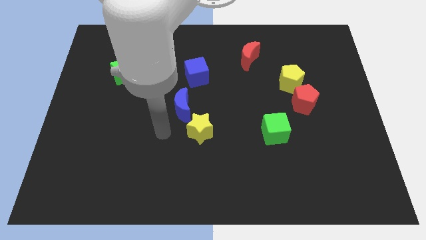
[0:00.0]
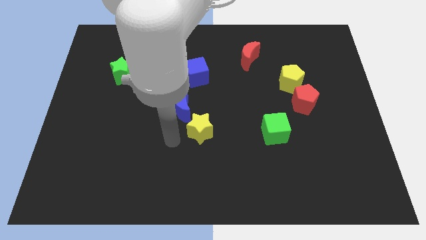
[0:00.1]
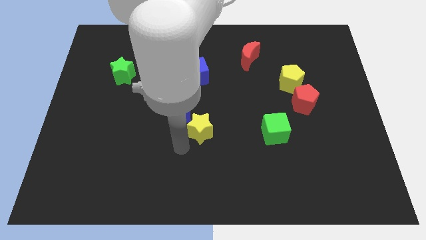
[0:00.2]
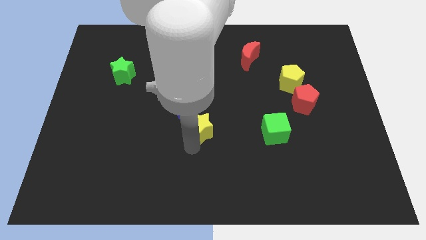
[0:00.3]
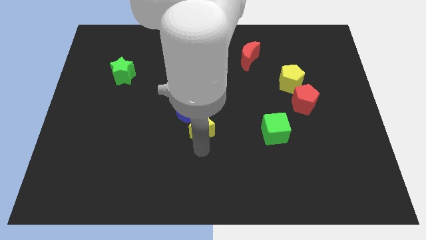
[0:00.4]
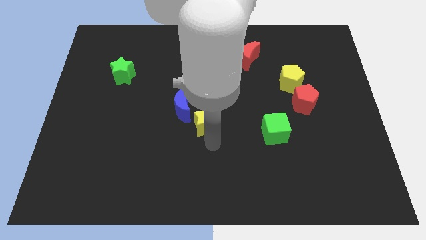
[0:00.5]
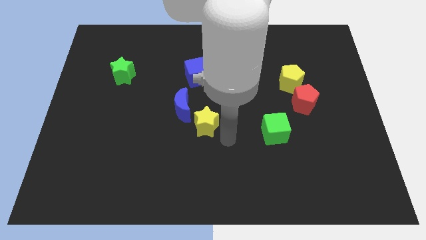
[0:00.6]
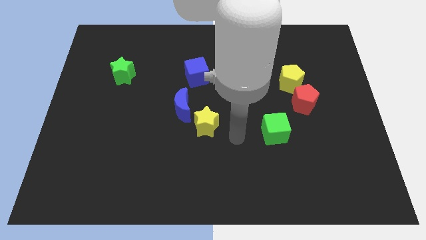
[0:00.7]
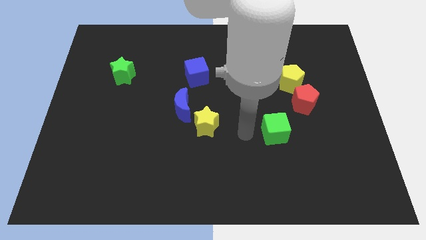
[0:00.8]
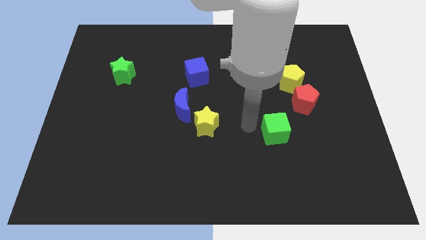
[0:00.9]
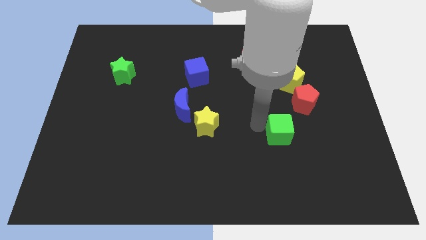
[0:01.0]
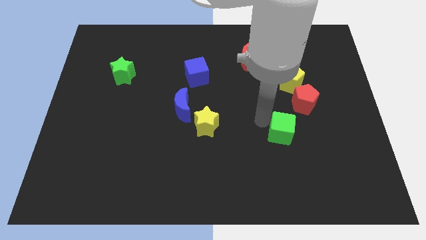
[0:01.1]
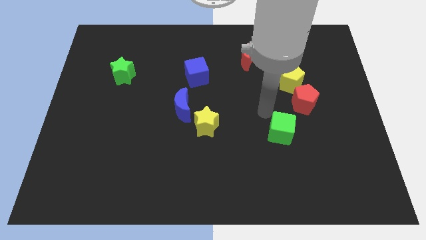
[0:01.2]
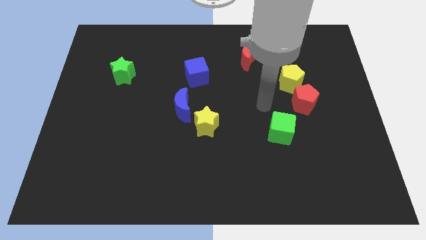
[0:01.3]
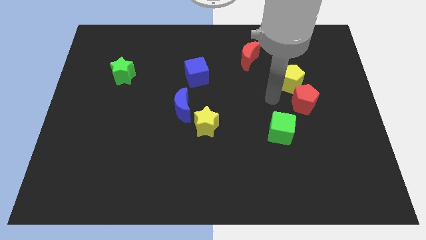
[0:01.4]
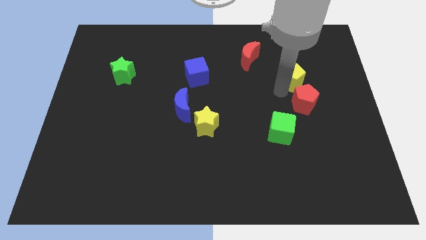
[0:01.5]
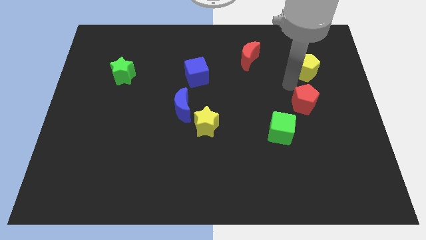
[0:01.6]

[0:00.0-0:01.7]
move the red pentagon away from the yellow pentagon

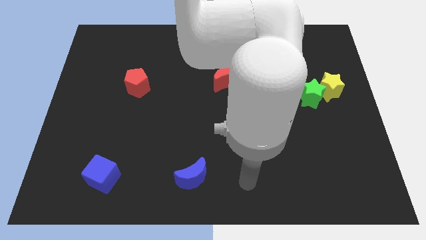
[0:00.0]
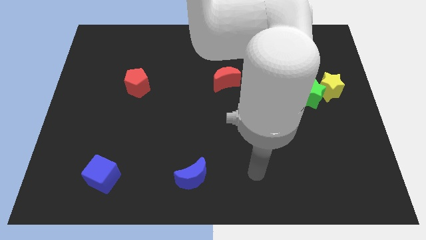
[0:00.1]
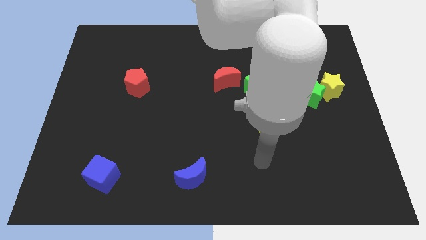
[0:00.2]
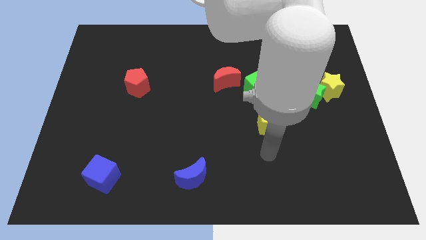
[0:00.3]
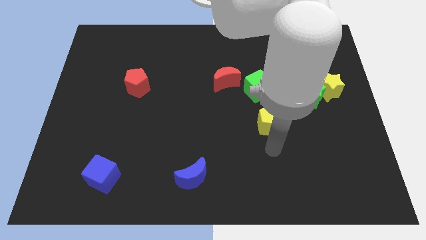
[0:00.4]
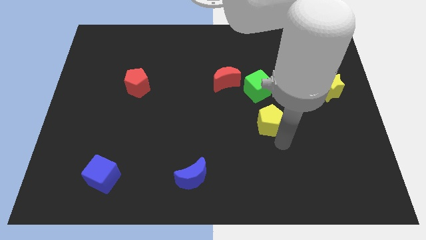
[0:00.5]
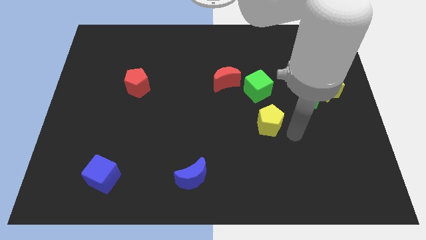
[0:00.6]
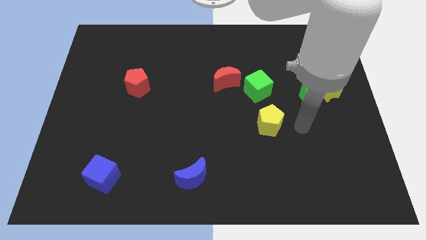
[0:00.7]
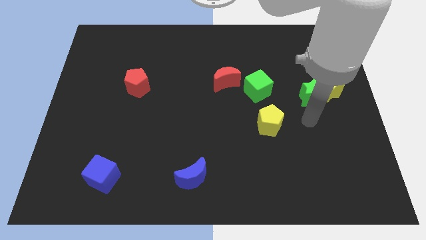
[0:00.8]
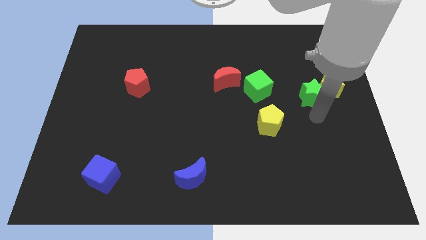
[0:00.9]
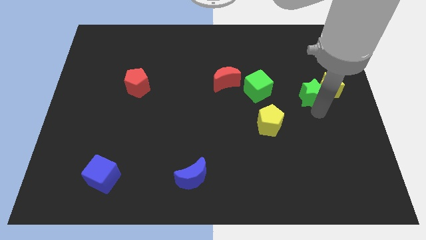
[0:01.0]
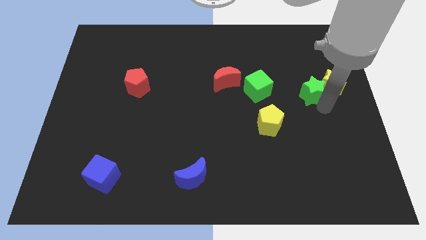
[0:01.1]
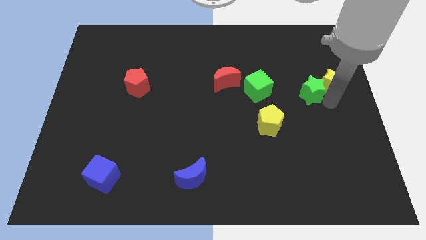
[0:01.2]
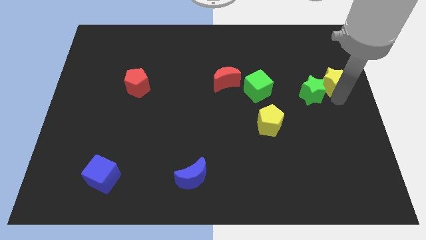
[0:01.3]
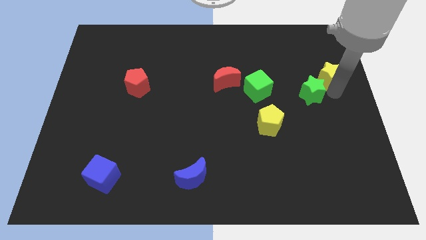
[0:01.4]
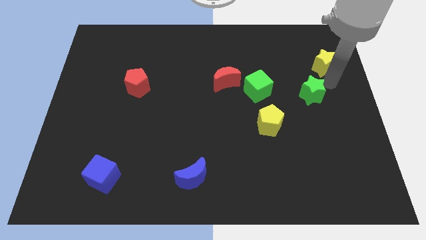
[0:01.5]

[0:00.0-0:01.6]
pull the green star apart from the yellow star

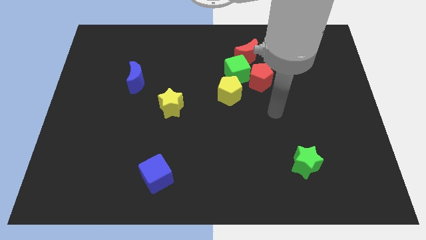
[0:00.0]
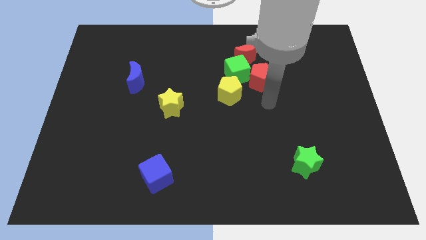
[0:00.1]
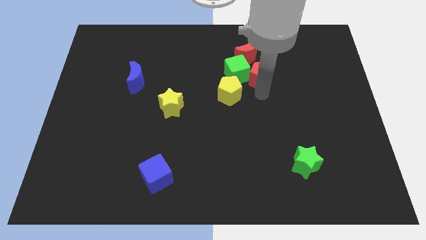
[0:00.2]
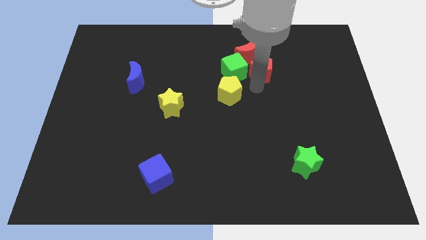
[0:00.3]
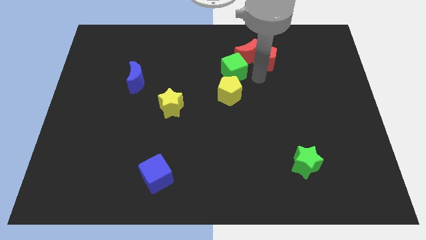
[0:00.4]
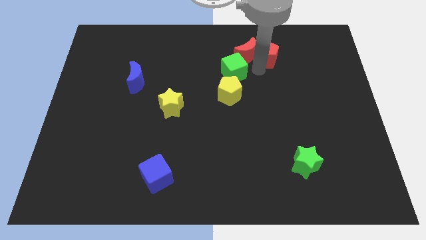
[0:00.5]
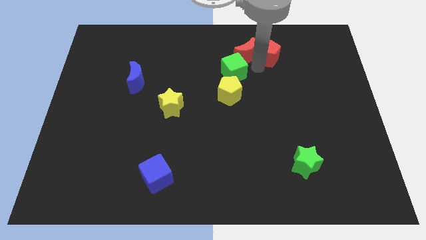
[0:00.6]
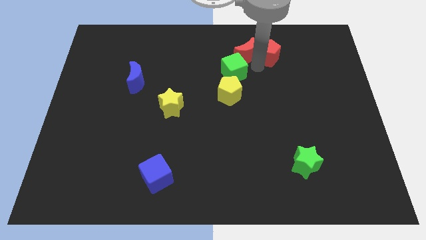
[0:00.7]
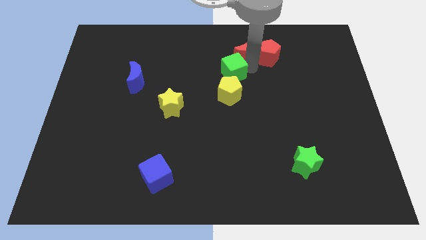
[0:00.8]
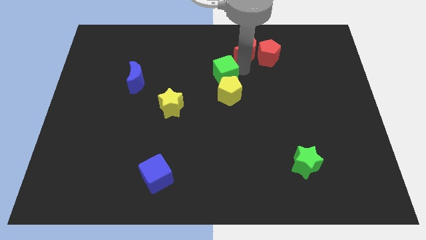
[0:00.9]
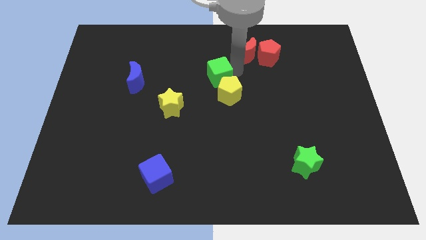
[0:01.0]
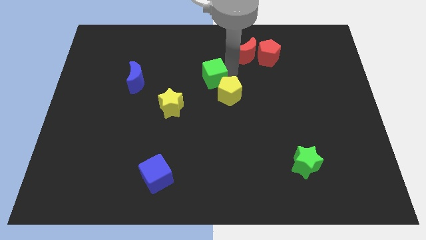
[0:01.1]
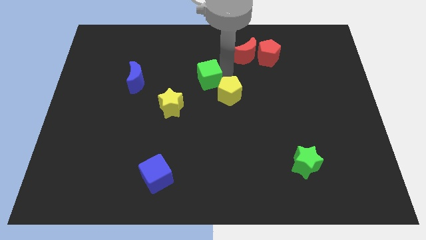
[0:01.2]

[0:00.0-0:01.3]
pull the green cube apart from the red pentagon, red moon, and yellow pentagon

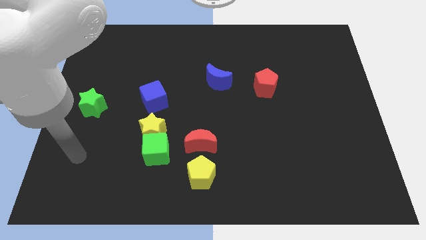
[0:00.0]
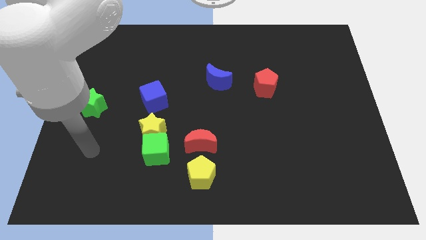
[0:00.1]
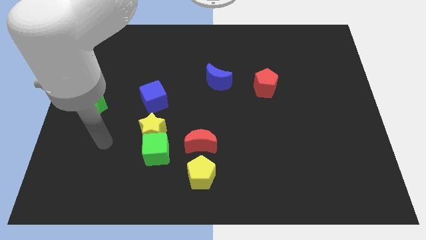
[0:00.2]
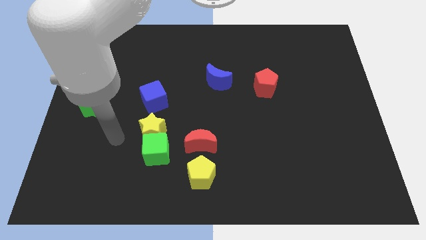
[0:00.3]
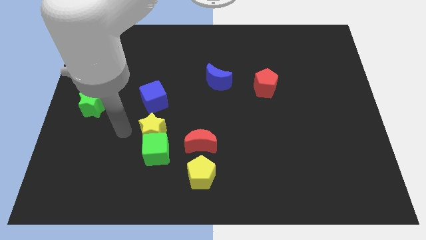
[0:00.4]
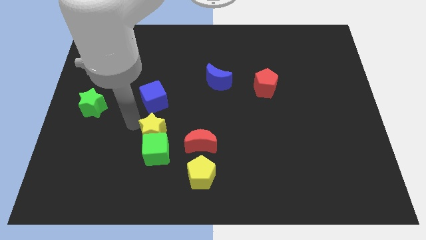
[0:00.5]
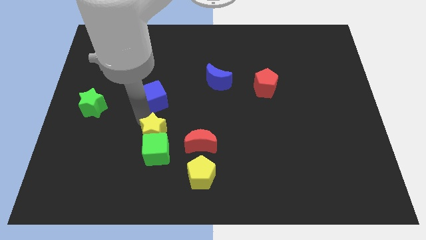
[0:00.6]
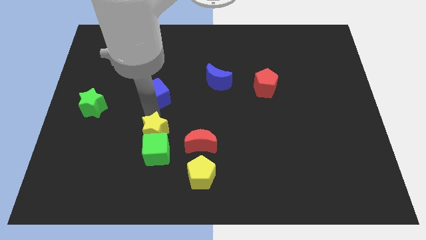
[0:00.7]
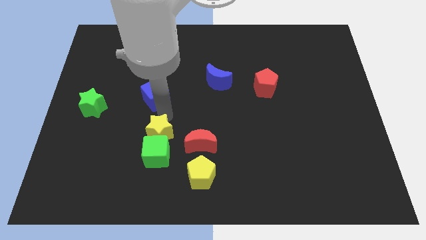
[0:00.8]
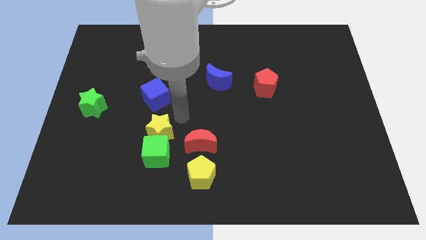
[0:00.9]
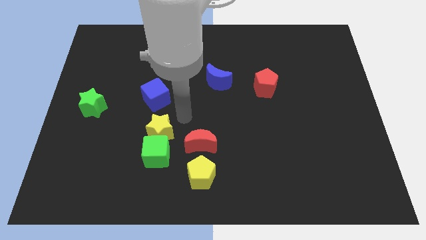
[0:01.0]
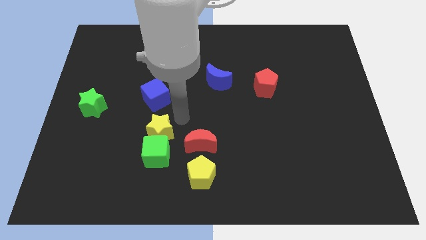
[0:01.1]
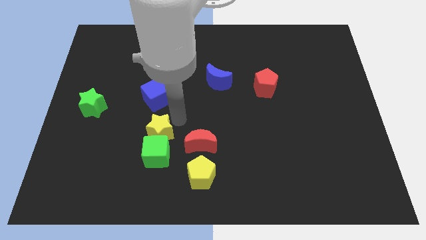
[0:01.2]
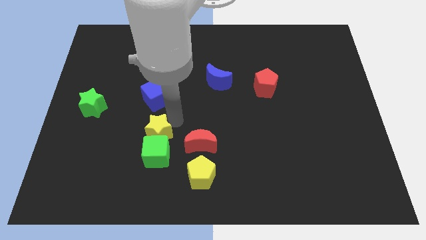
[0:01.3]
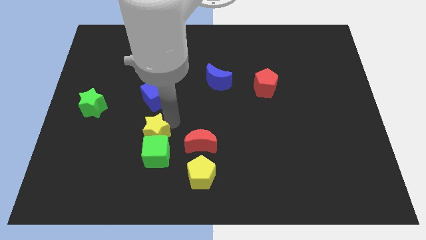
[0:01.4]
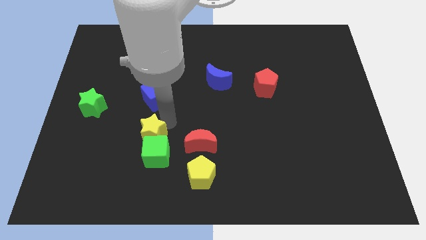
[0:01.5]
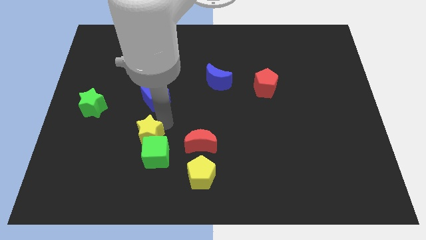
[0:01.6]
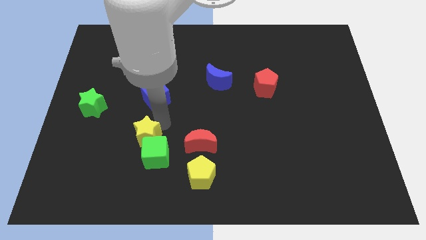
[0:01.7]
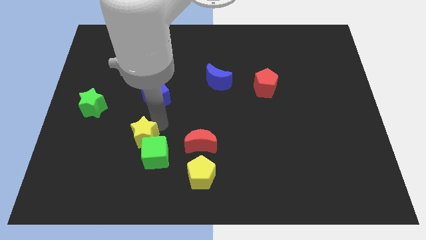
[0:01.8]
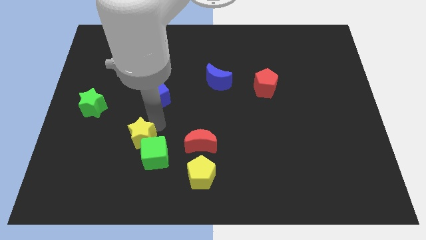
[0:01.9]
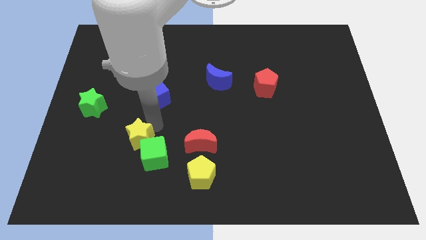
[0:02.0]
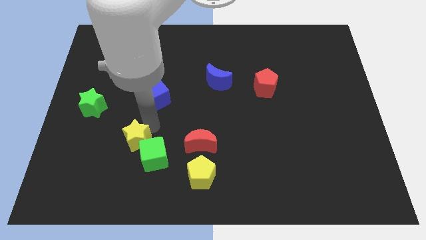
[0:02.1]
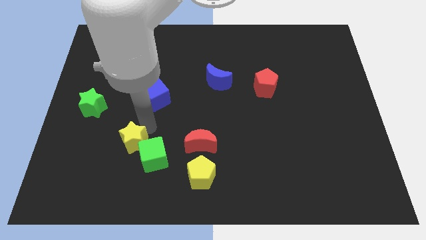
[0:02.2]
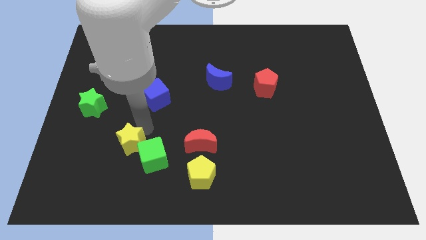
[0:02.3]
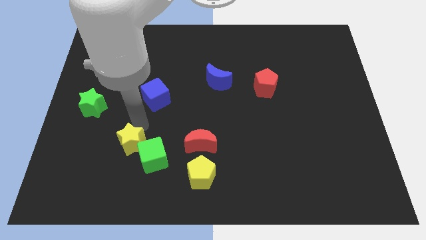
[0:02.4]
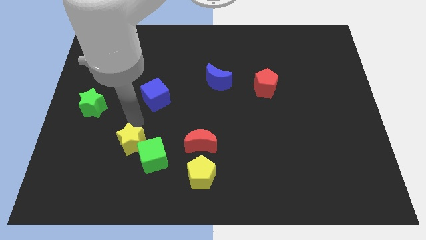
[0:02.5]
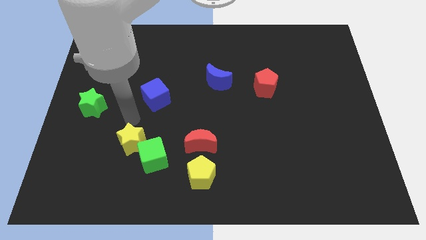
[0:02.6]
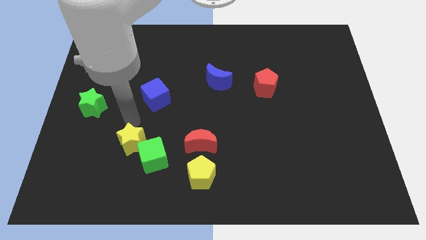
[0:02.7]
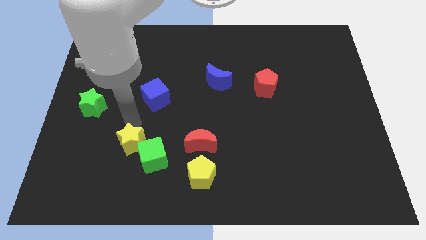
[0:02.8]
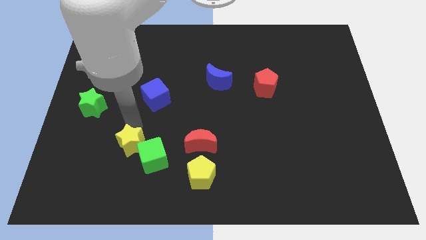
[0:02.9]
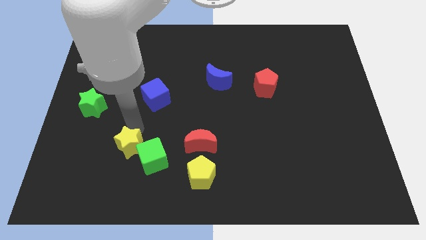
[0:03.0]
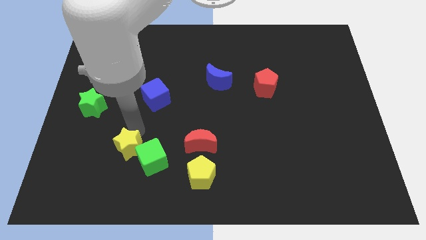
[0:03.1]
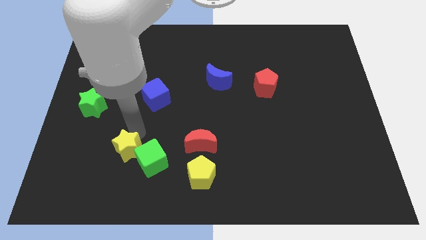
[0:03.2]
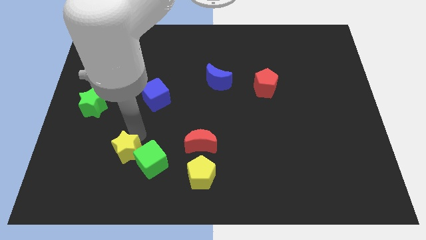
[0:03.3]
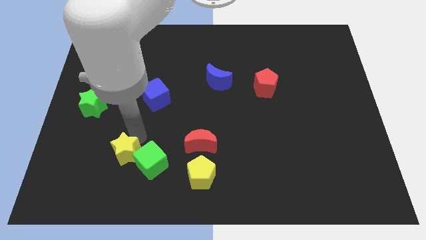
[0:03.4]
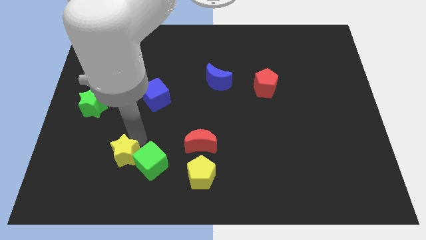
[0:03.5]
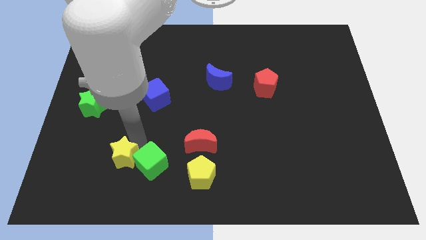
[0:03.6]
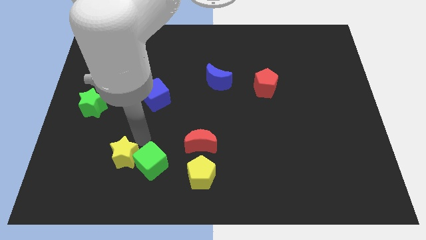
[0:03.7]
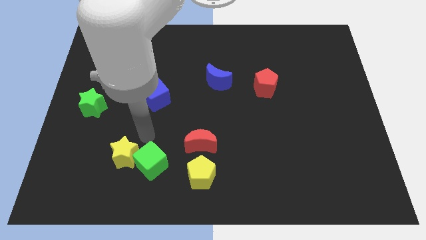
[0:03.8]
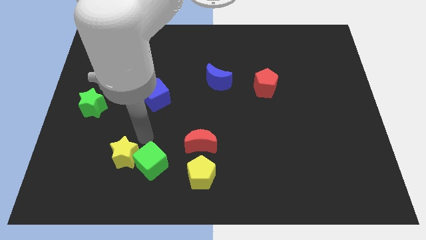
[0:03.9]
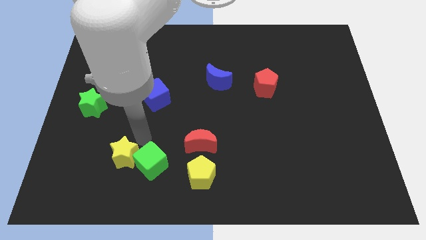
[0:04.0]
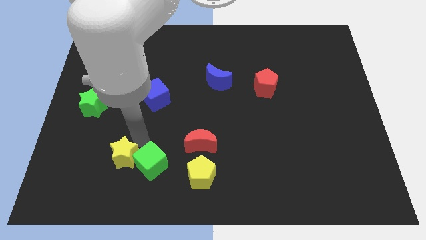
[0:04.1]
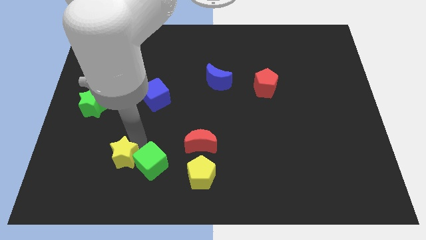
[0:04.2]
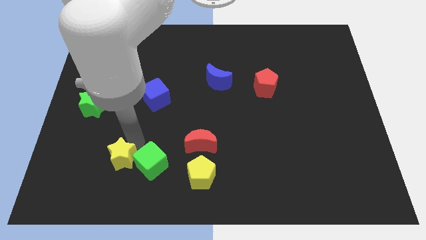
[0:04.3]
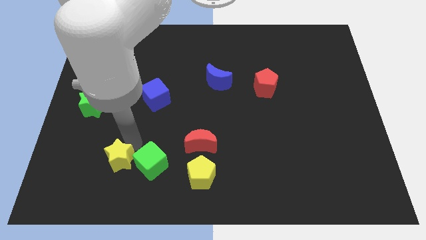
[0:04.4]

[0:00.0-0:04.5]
separate the yellow star from the green cube and blue cube

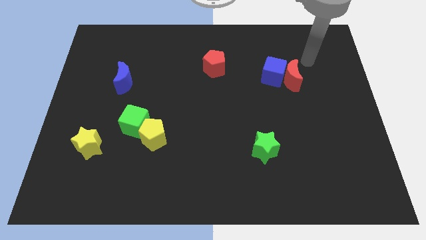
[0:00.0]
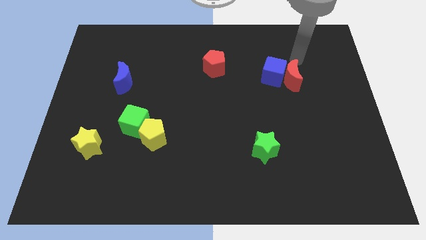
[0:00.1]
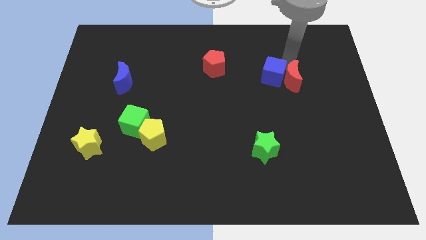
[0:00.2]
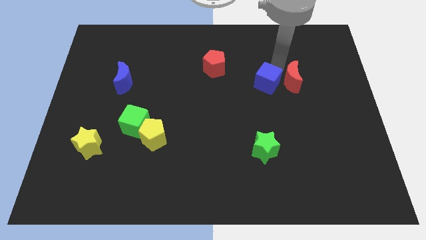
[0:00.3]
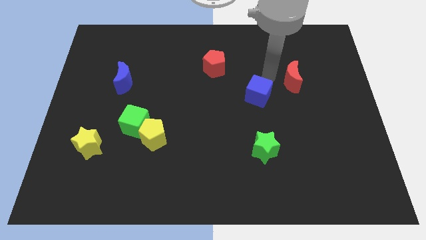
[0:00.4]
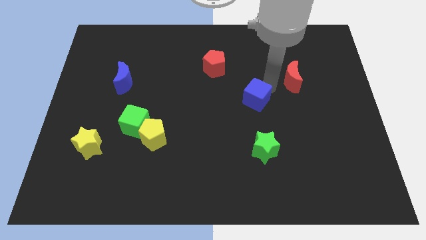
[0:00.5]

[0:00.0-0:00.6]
pull the red moon apart from the blue cube
